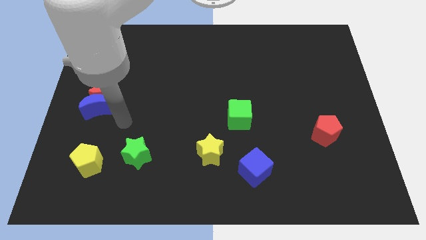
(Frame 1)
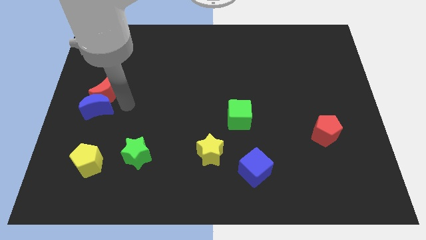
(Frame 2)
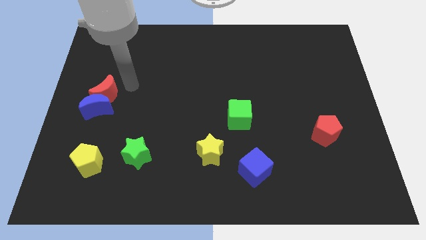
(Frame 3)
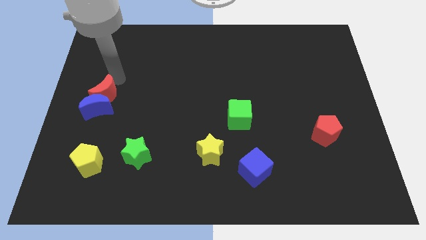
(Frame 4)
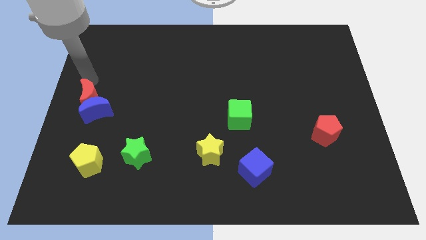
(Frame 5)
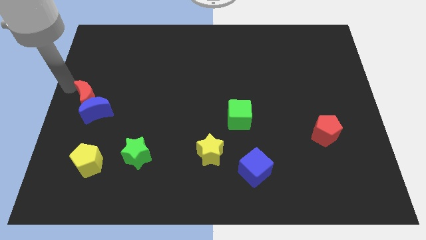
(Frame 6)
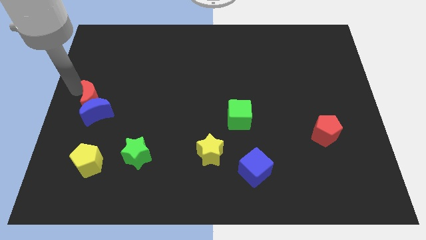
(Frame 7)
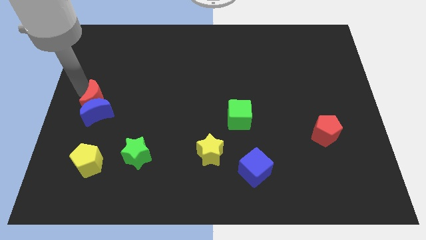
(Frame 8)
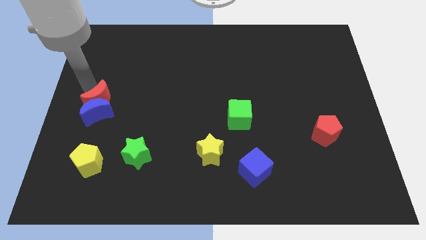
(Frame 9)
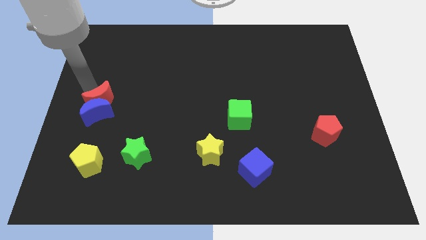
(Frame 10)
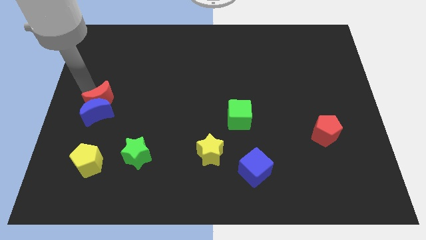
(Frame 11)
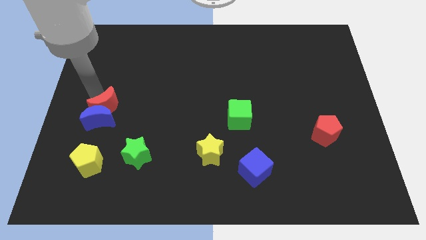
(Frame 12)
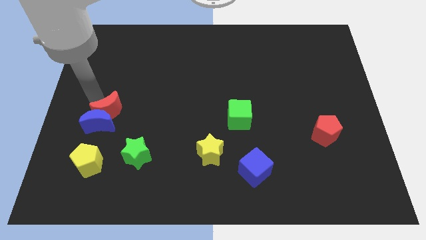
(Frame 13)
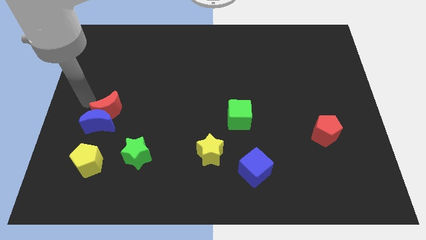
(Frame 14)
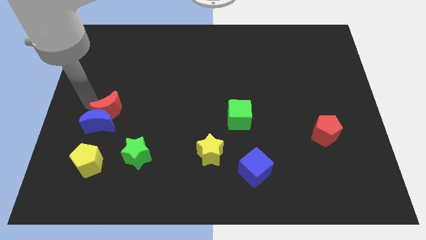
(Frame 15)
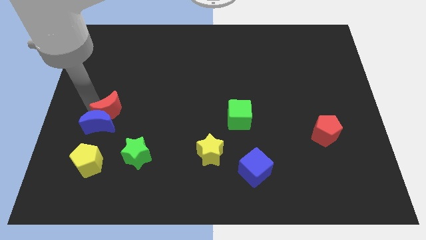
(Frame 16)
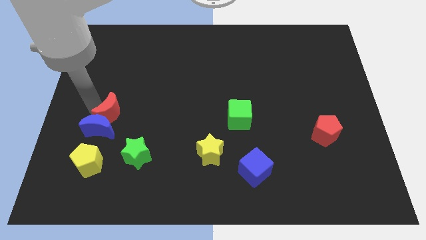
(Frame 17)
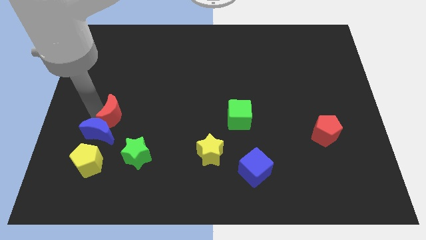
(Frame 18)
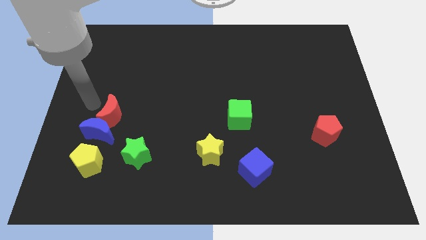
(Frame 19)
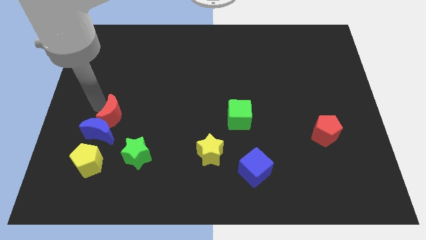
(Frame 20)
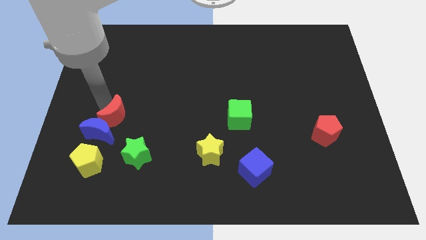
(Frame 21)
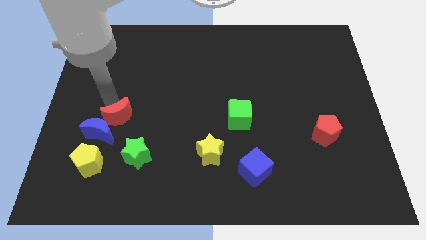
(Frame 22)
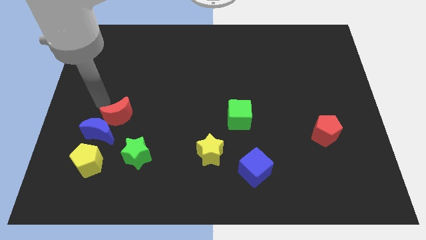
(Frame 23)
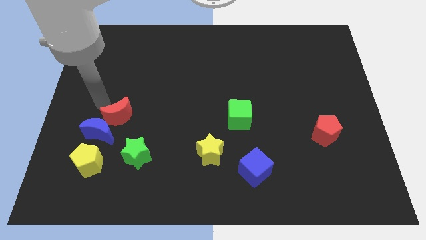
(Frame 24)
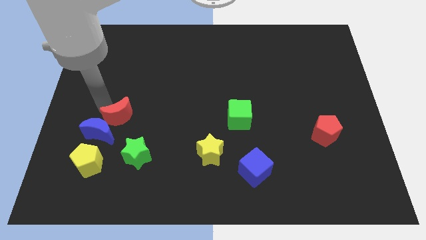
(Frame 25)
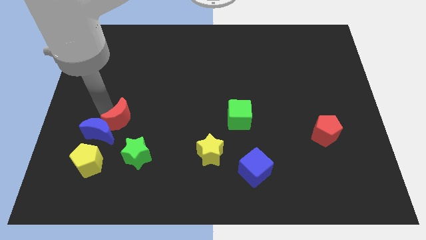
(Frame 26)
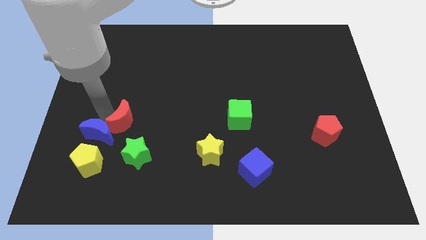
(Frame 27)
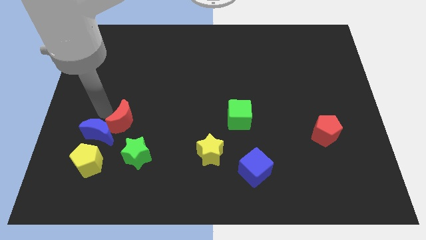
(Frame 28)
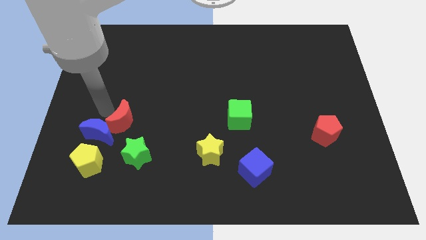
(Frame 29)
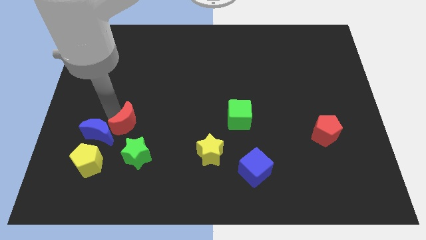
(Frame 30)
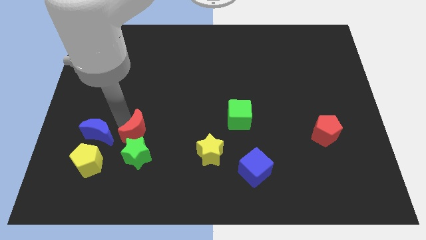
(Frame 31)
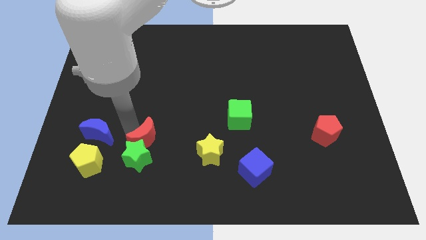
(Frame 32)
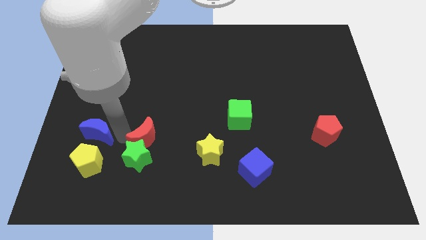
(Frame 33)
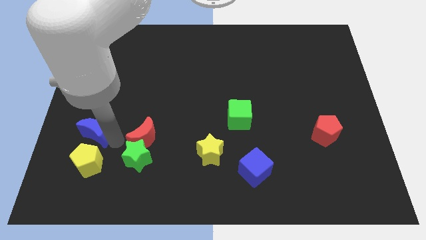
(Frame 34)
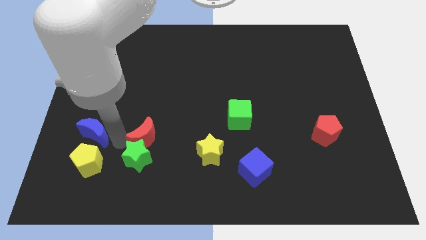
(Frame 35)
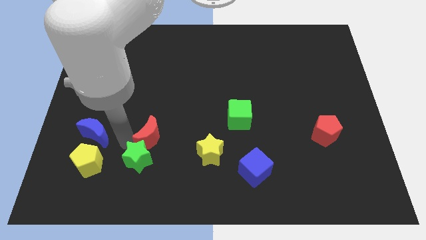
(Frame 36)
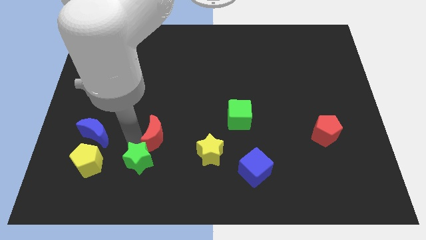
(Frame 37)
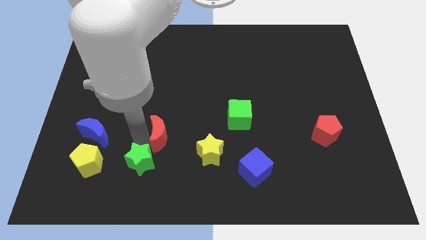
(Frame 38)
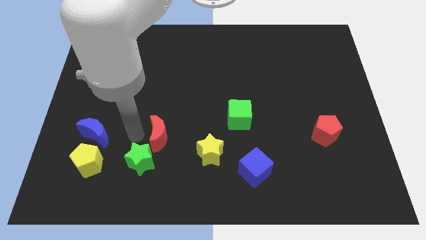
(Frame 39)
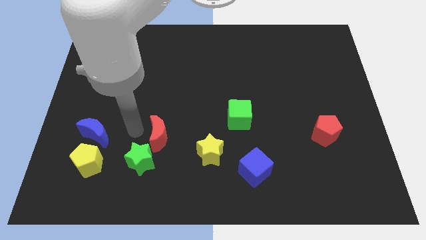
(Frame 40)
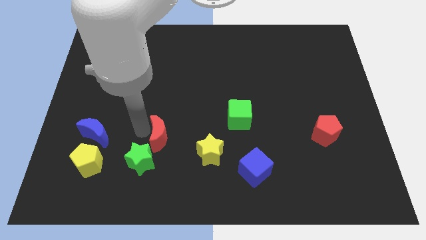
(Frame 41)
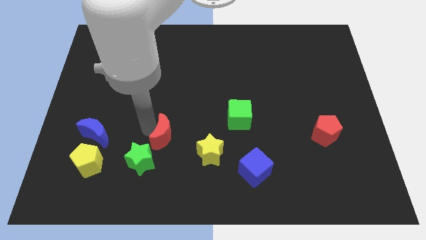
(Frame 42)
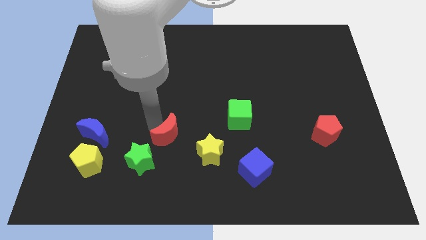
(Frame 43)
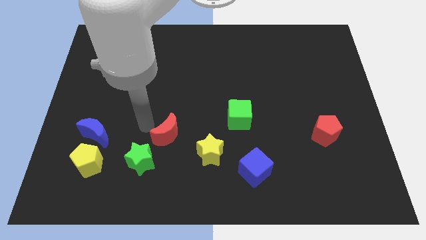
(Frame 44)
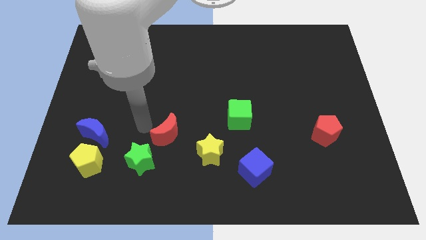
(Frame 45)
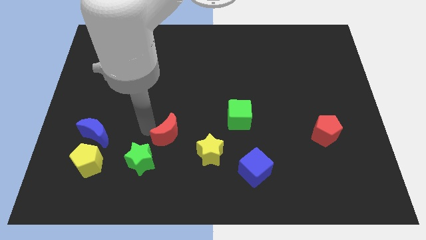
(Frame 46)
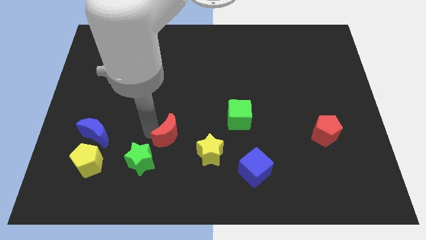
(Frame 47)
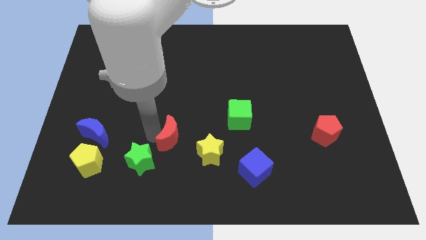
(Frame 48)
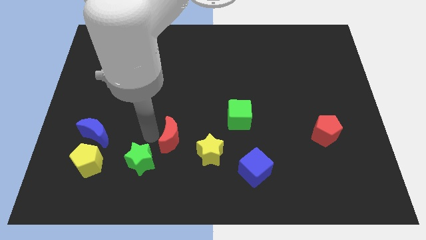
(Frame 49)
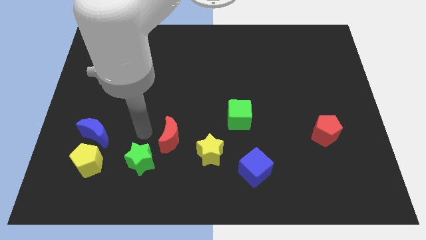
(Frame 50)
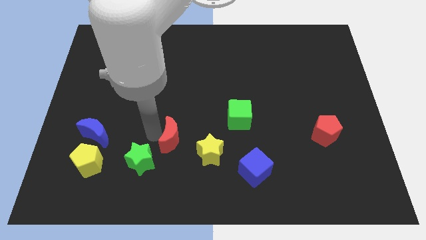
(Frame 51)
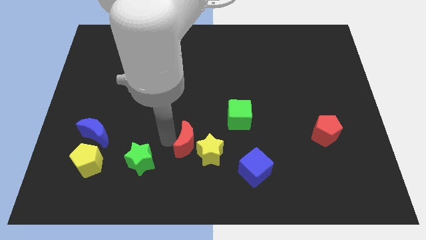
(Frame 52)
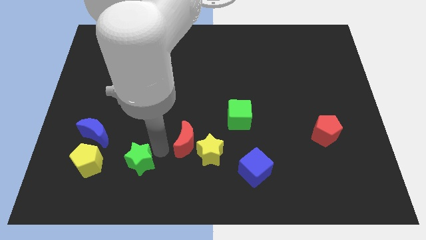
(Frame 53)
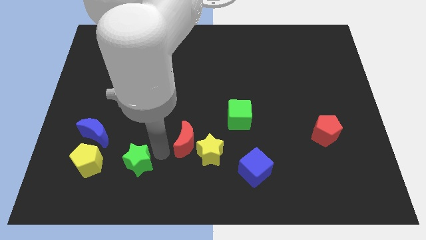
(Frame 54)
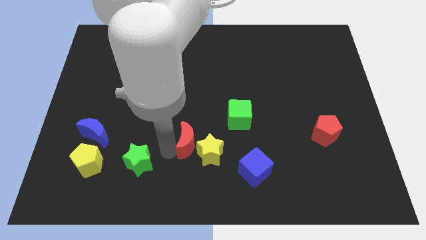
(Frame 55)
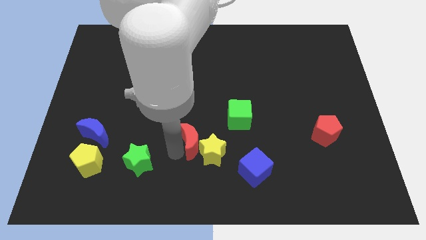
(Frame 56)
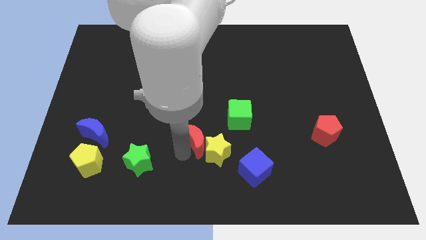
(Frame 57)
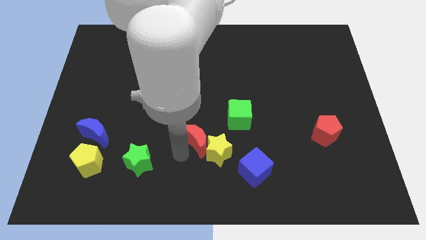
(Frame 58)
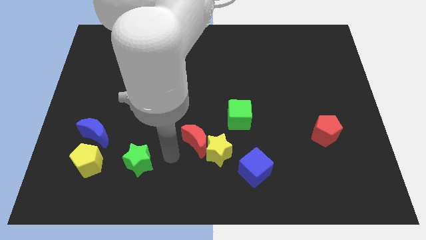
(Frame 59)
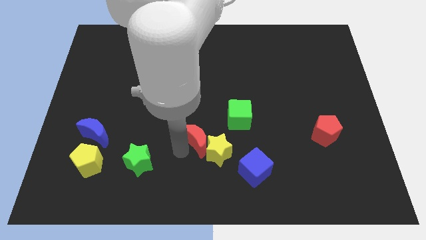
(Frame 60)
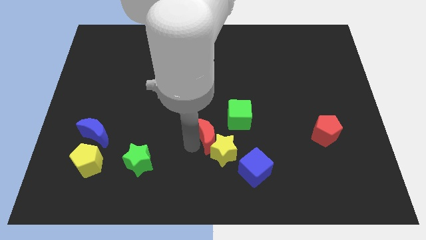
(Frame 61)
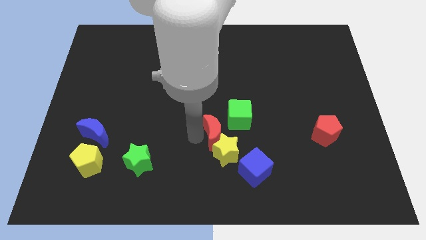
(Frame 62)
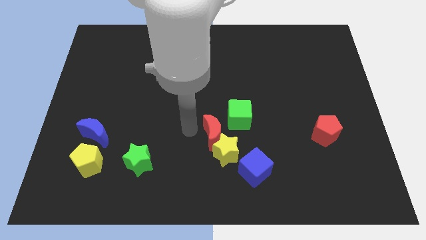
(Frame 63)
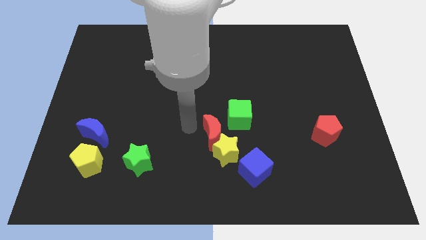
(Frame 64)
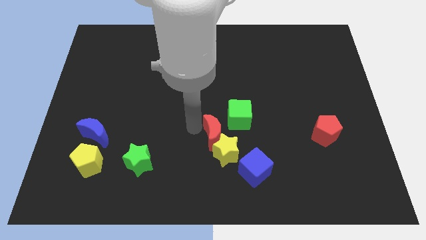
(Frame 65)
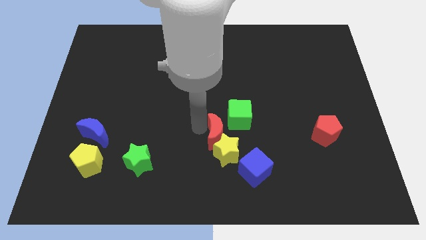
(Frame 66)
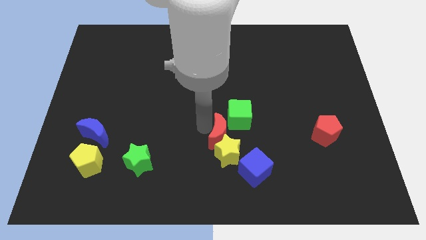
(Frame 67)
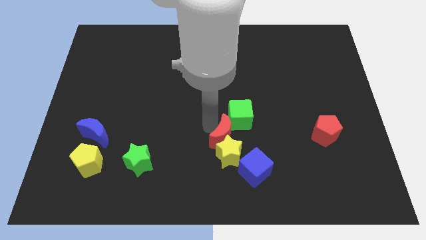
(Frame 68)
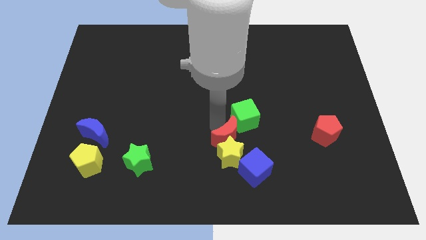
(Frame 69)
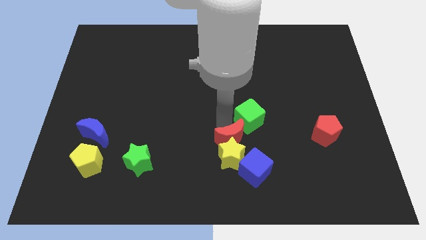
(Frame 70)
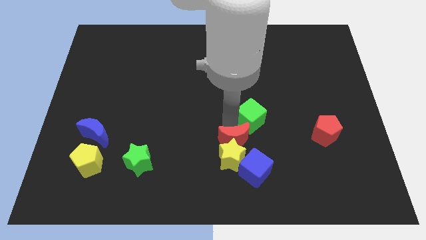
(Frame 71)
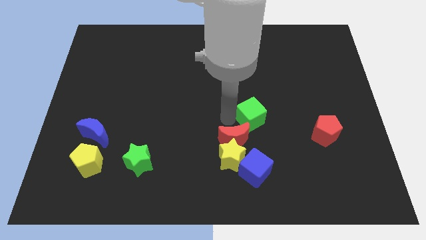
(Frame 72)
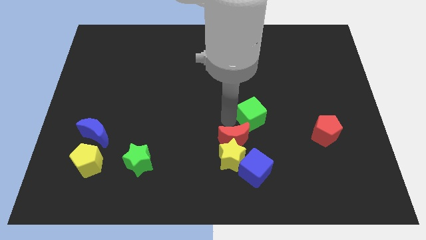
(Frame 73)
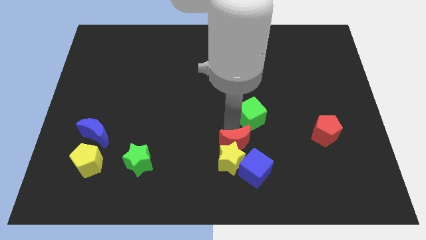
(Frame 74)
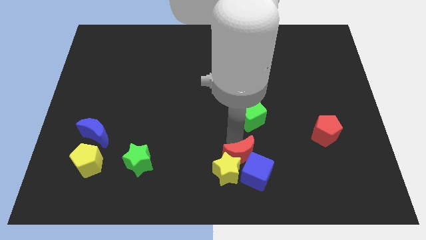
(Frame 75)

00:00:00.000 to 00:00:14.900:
slide the red moon towards the blue cube
